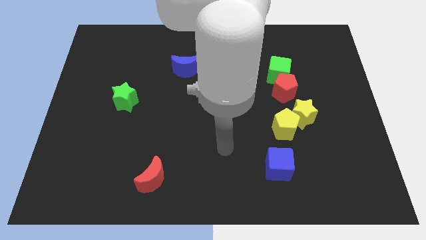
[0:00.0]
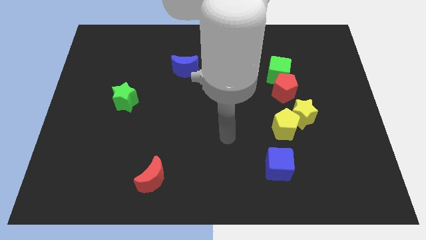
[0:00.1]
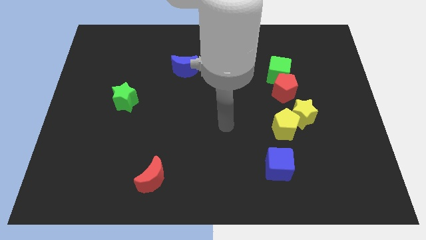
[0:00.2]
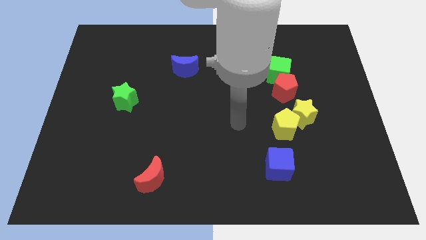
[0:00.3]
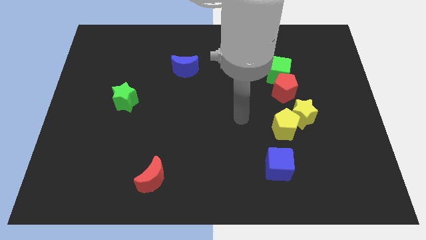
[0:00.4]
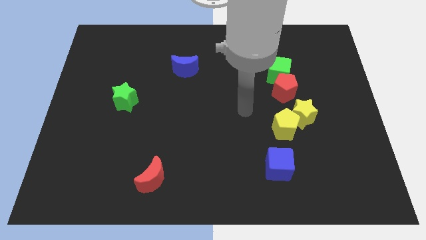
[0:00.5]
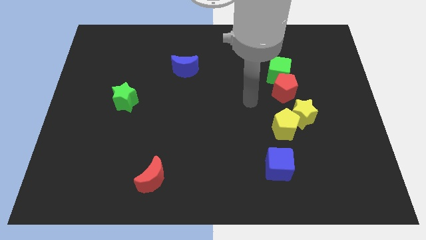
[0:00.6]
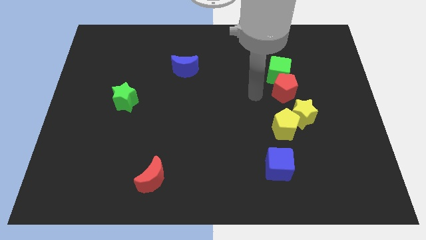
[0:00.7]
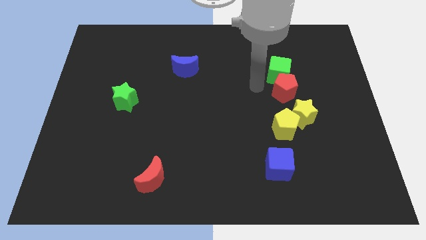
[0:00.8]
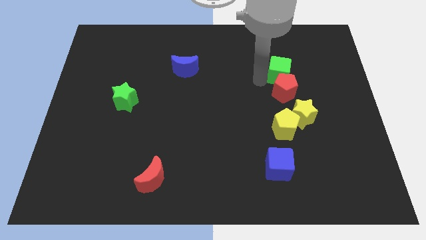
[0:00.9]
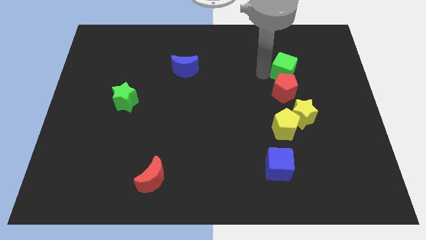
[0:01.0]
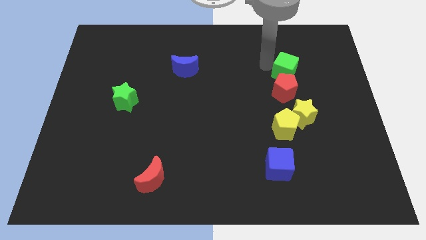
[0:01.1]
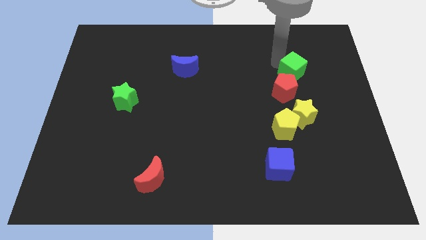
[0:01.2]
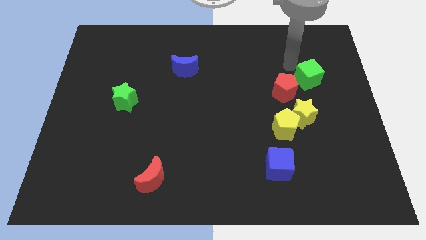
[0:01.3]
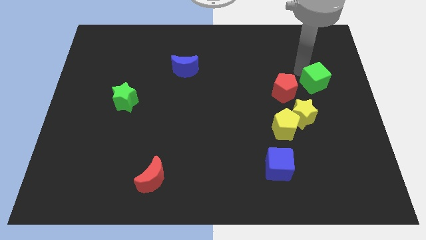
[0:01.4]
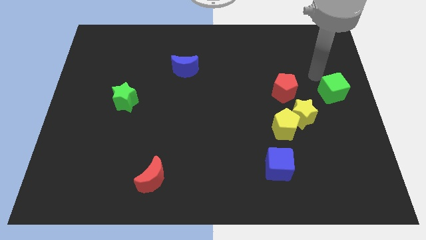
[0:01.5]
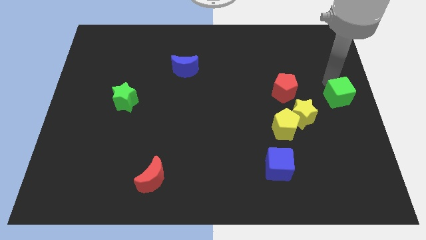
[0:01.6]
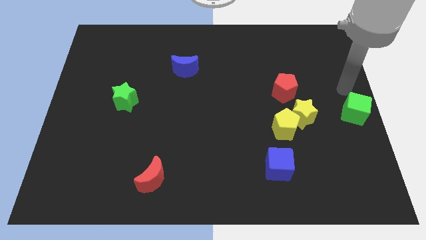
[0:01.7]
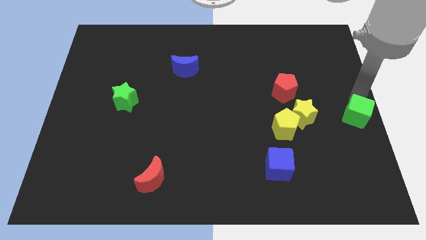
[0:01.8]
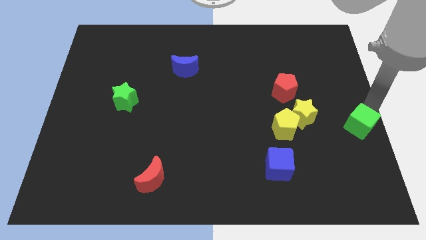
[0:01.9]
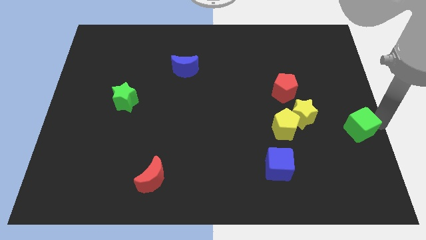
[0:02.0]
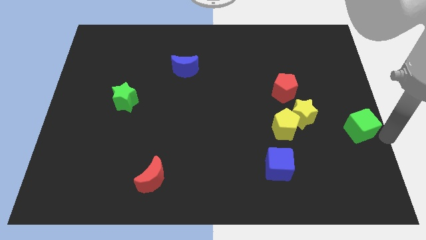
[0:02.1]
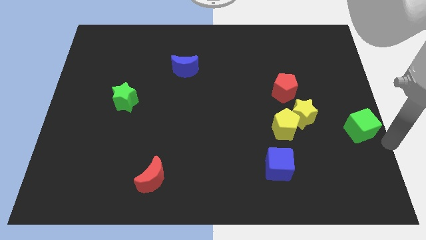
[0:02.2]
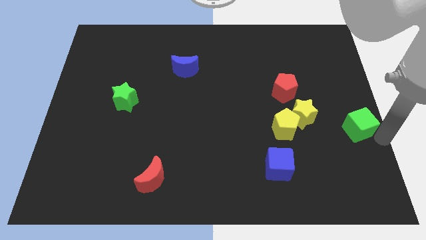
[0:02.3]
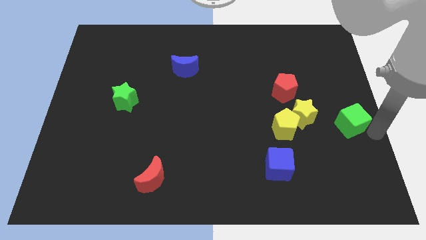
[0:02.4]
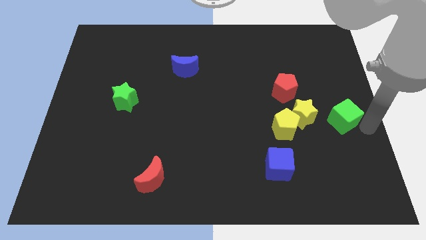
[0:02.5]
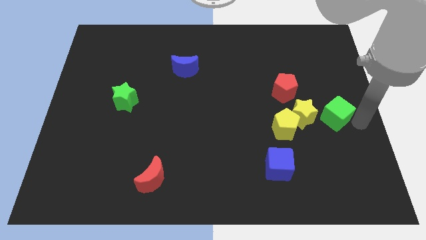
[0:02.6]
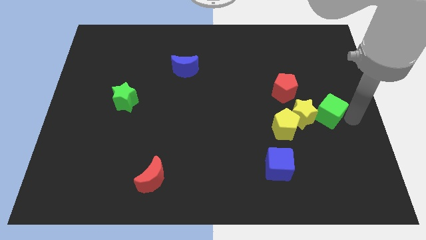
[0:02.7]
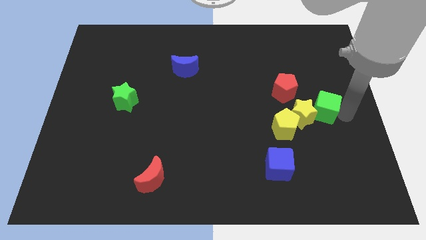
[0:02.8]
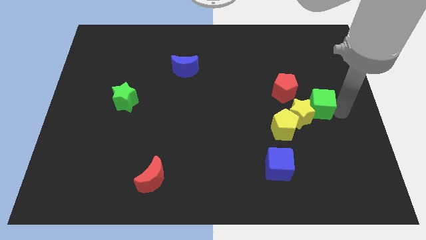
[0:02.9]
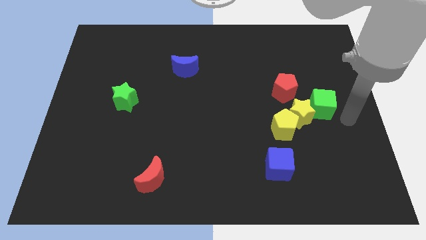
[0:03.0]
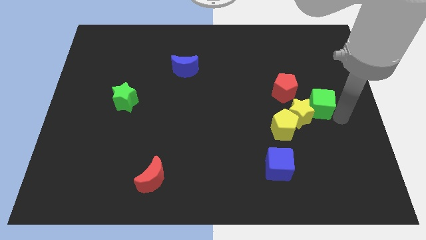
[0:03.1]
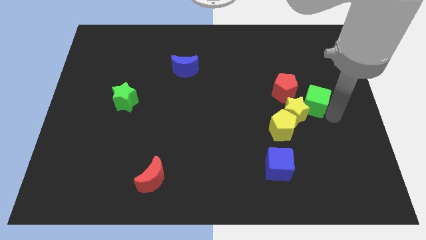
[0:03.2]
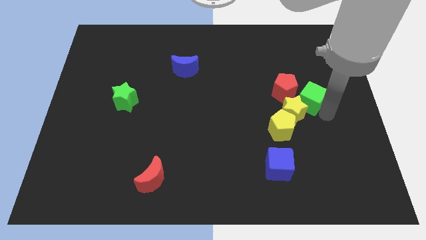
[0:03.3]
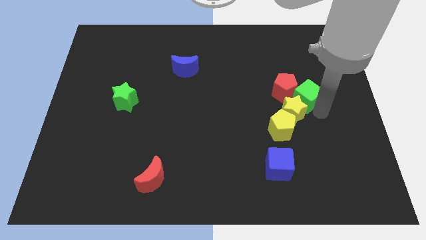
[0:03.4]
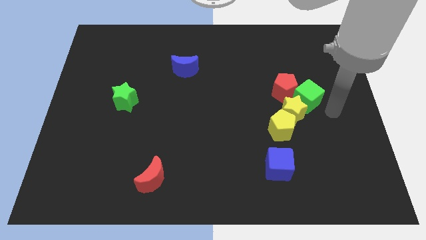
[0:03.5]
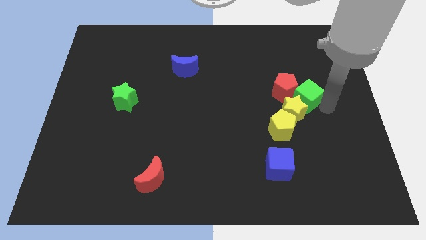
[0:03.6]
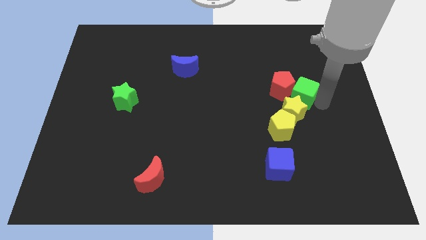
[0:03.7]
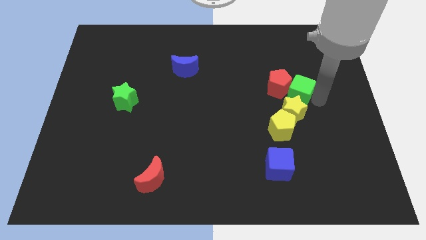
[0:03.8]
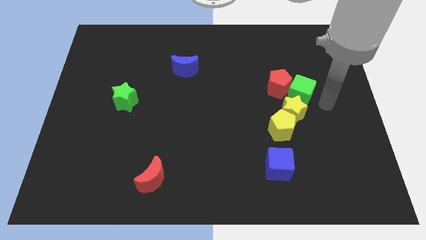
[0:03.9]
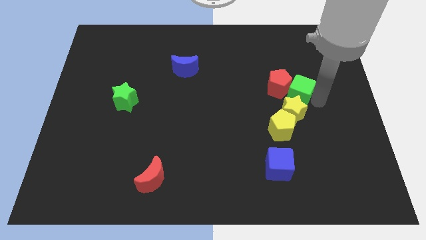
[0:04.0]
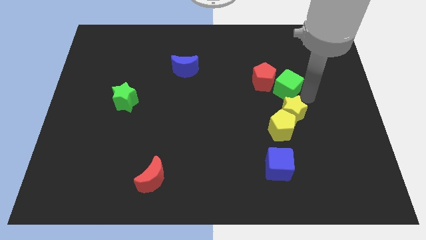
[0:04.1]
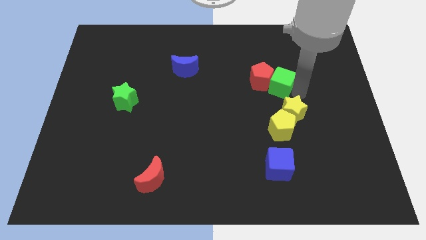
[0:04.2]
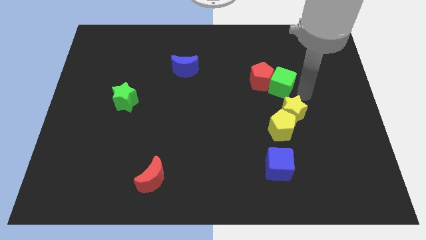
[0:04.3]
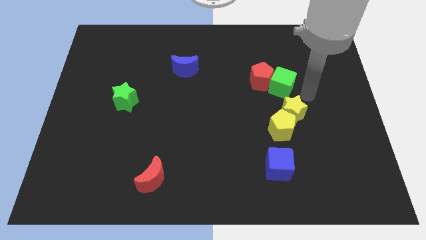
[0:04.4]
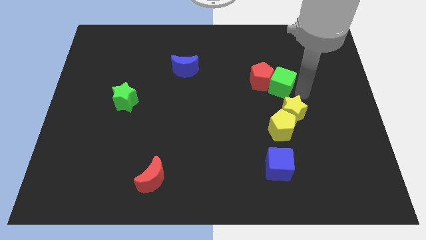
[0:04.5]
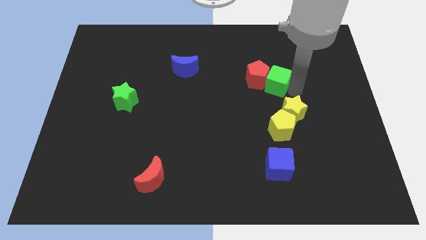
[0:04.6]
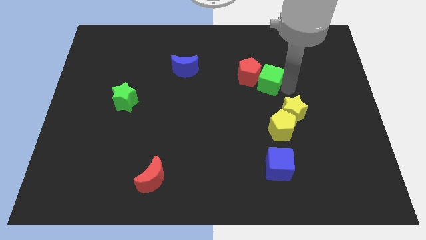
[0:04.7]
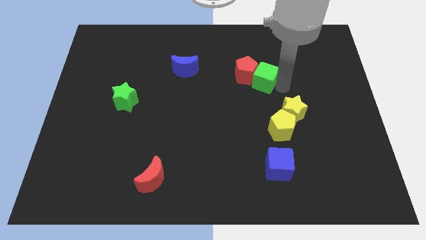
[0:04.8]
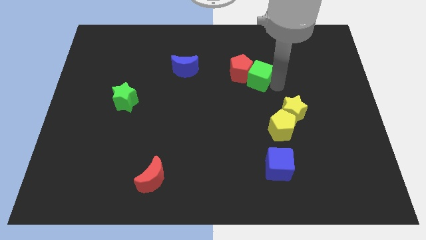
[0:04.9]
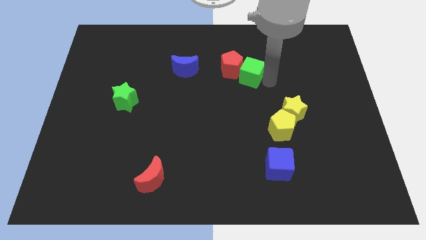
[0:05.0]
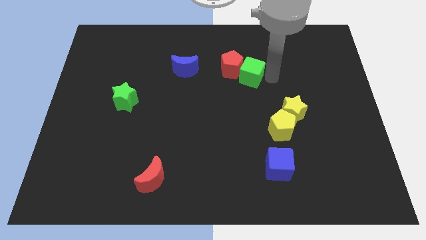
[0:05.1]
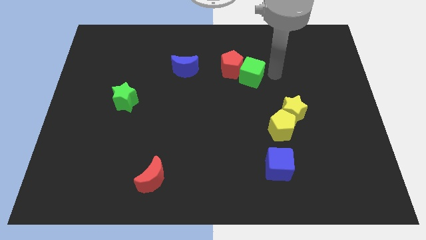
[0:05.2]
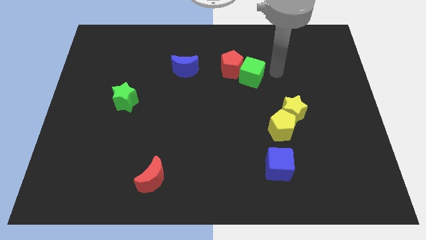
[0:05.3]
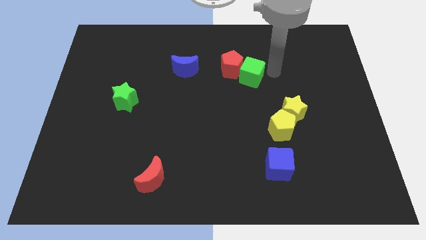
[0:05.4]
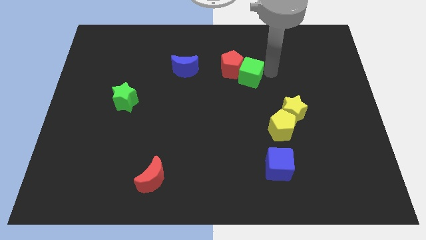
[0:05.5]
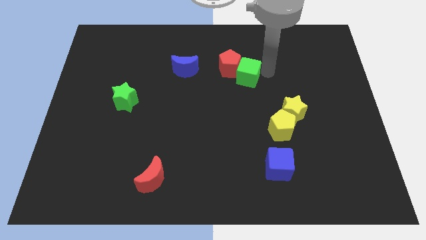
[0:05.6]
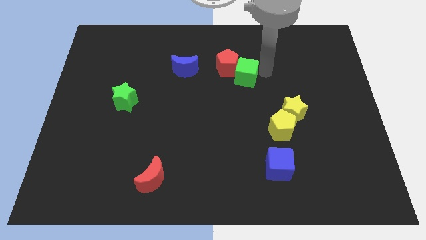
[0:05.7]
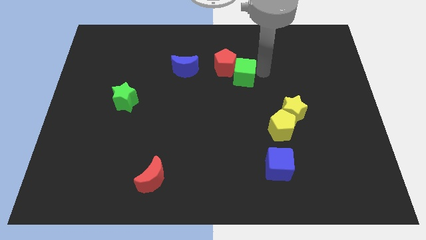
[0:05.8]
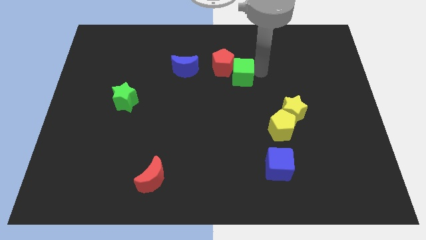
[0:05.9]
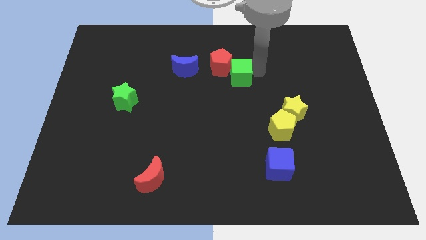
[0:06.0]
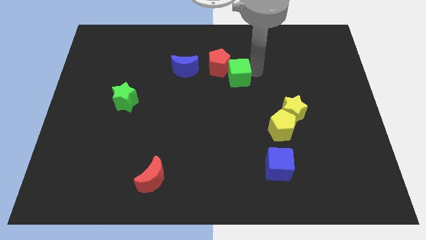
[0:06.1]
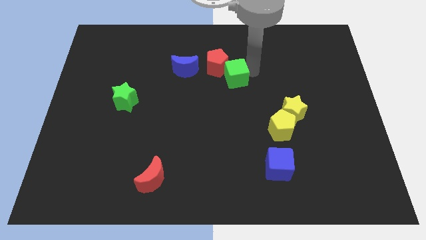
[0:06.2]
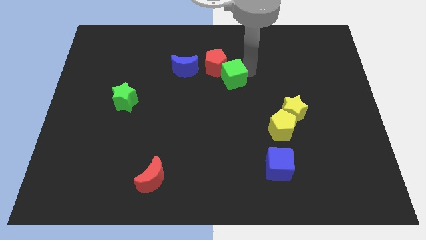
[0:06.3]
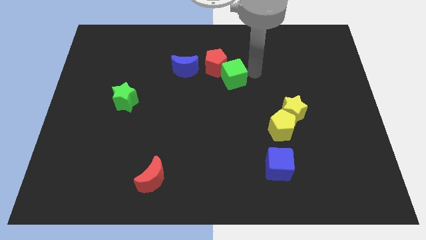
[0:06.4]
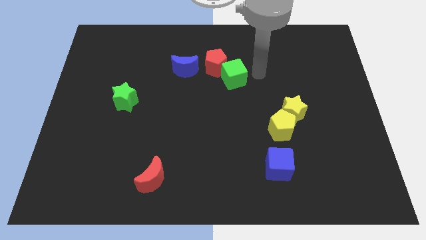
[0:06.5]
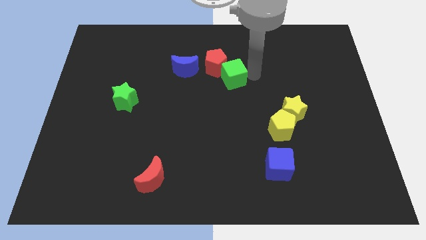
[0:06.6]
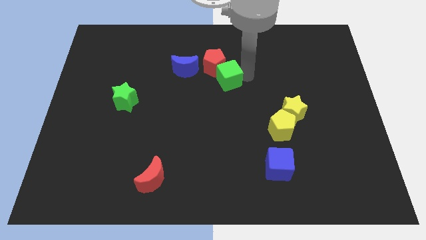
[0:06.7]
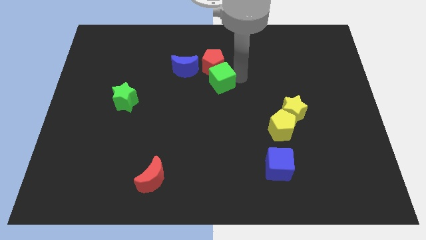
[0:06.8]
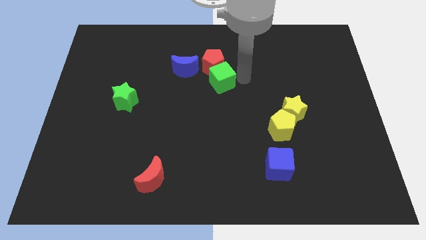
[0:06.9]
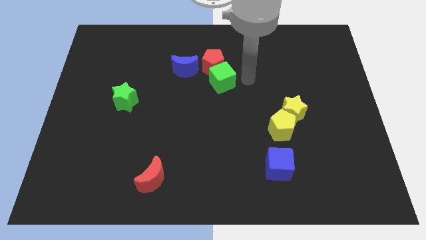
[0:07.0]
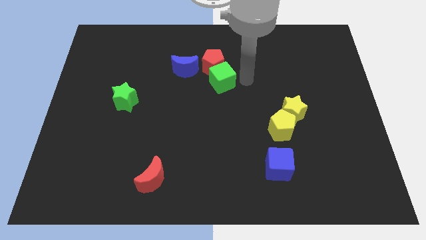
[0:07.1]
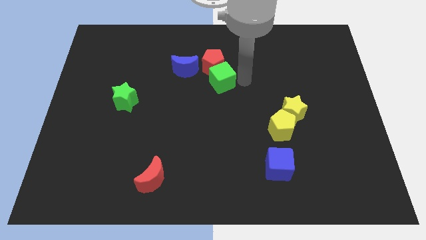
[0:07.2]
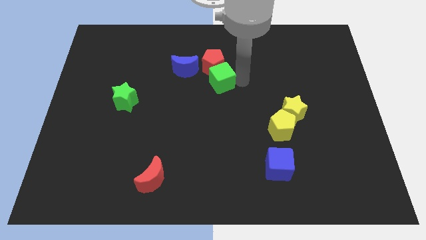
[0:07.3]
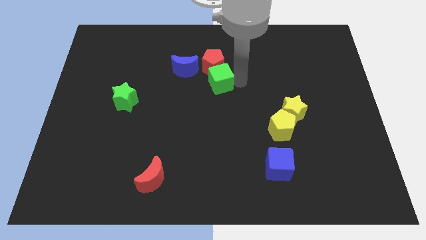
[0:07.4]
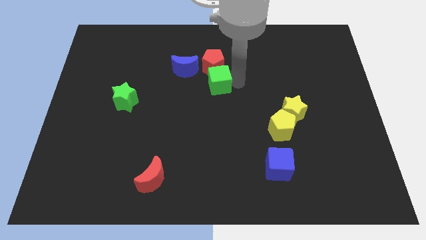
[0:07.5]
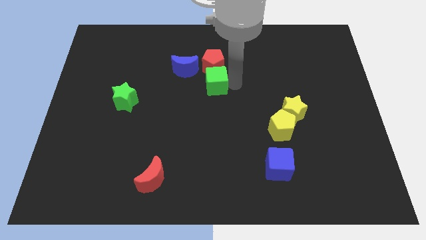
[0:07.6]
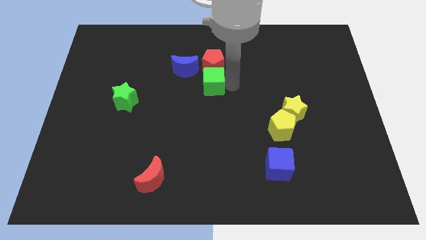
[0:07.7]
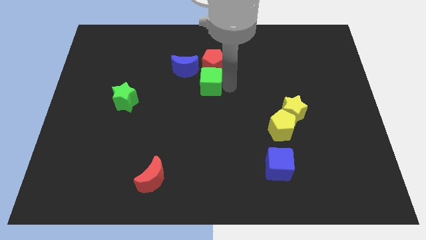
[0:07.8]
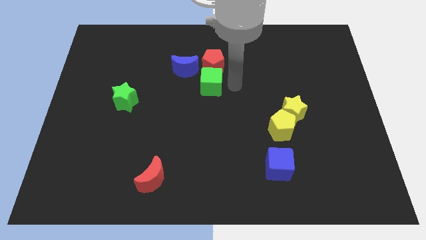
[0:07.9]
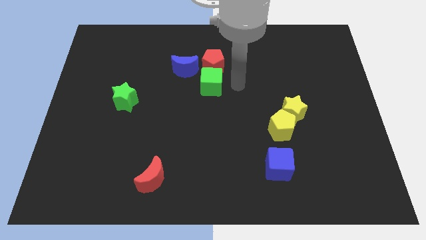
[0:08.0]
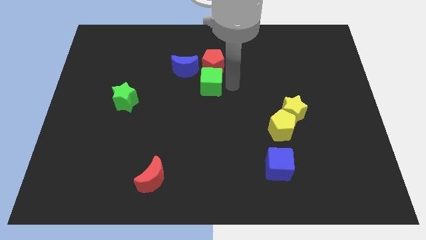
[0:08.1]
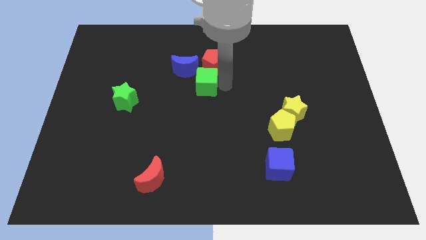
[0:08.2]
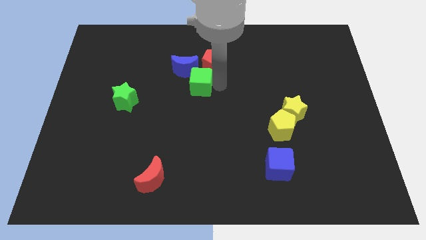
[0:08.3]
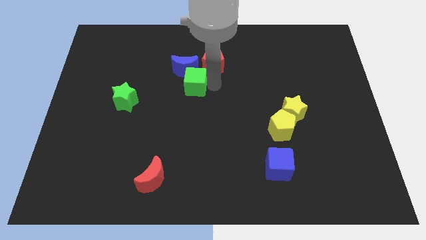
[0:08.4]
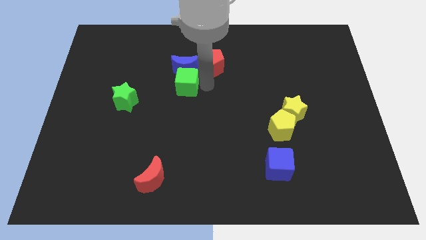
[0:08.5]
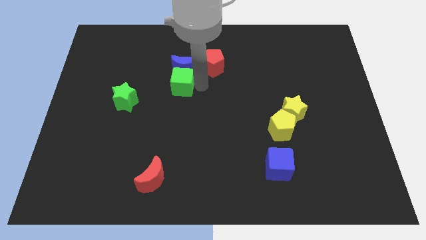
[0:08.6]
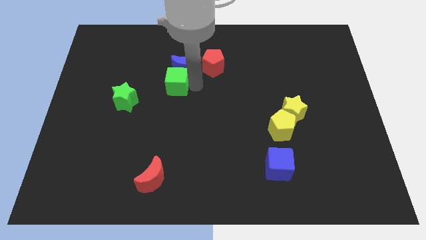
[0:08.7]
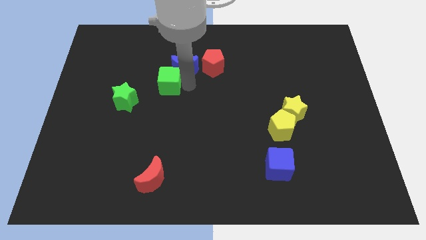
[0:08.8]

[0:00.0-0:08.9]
slide the green cube diagonally up and to the right of the green star
